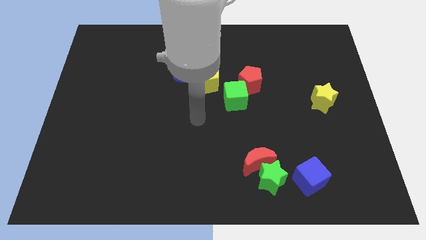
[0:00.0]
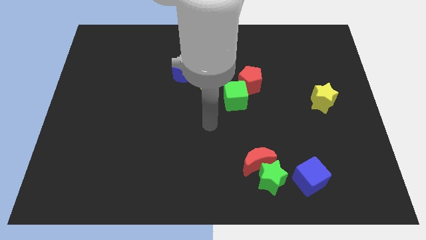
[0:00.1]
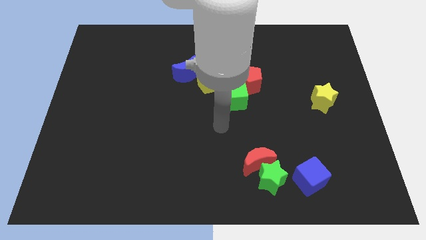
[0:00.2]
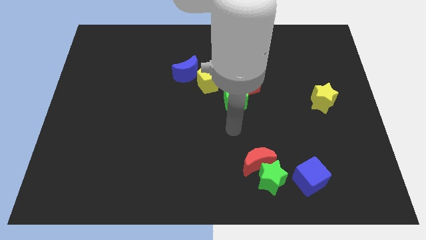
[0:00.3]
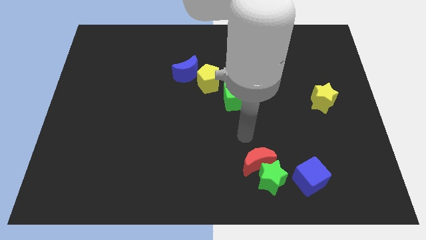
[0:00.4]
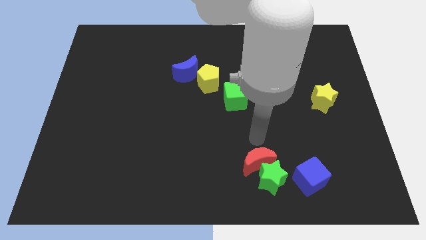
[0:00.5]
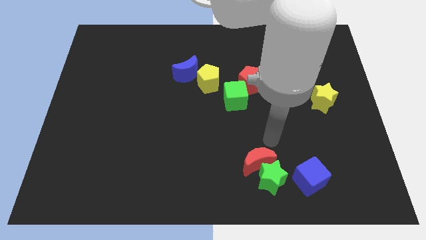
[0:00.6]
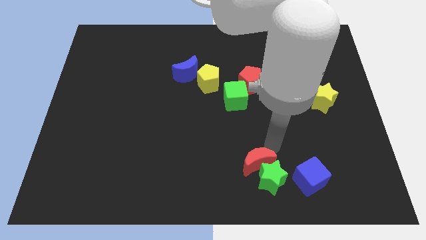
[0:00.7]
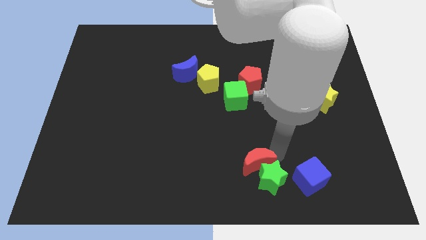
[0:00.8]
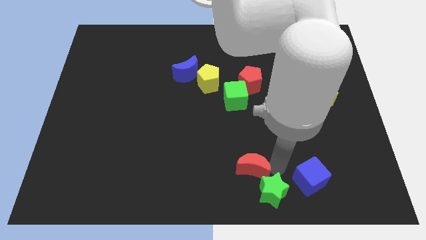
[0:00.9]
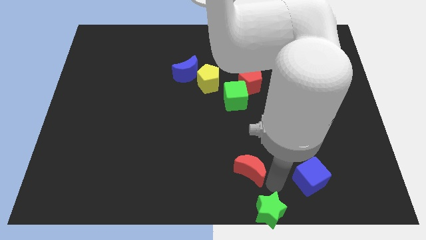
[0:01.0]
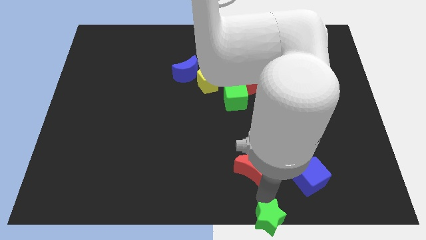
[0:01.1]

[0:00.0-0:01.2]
pull the red moon apart from the green star

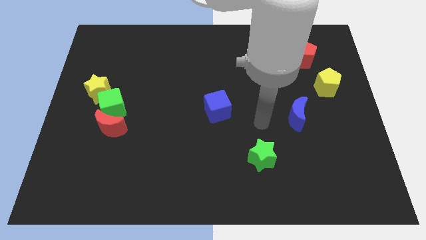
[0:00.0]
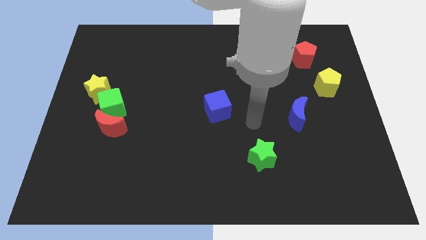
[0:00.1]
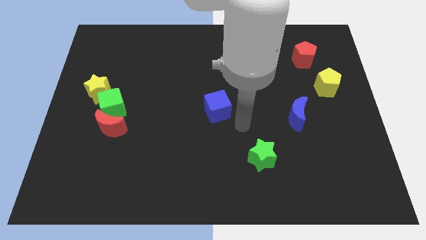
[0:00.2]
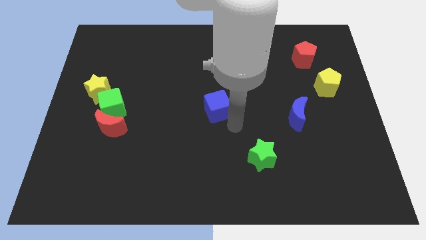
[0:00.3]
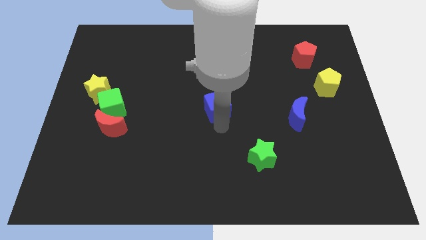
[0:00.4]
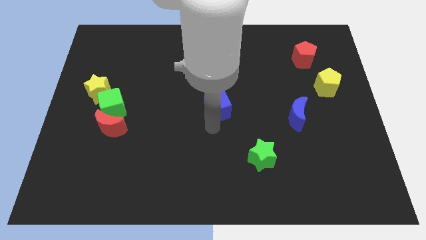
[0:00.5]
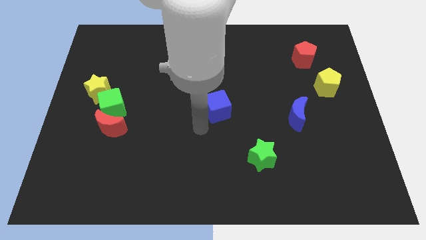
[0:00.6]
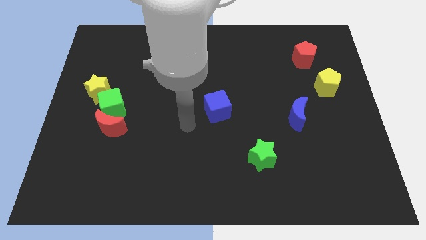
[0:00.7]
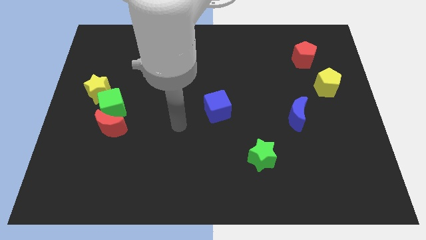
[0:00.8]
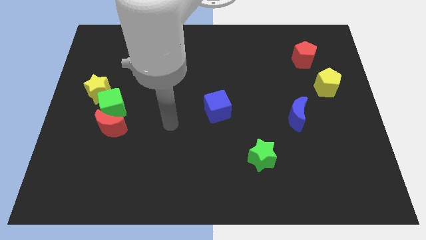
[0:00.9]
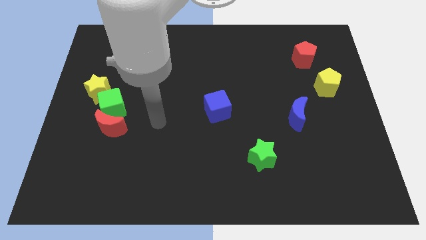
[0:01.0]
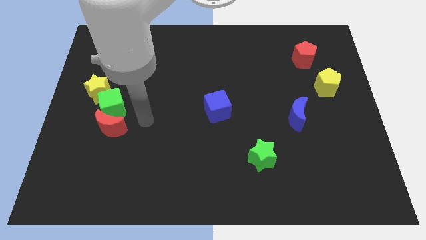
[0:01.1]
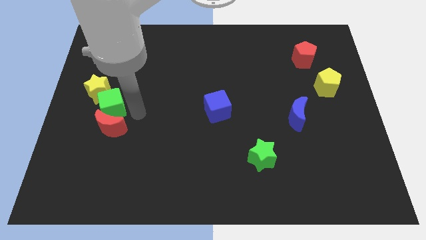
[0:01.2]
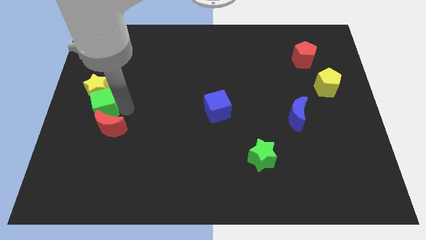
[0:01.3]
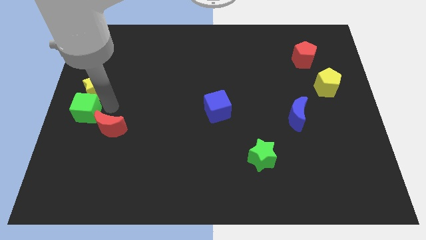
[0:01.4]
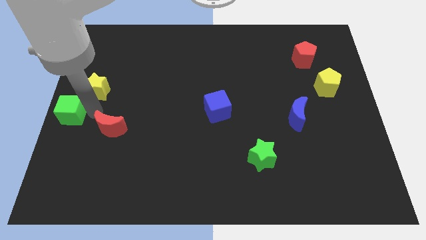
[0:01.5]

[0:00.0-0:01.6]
pull the red moon apart from the green cube

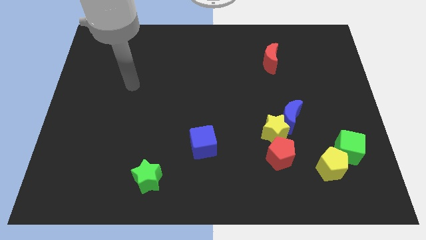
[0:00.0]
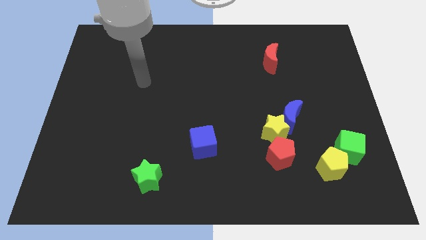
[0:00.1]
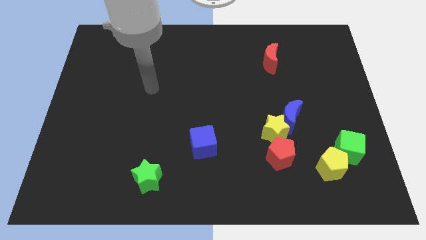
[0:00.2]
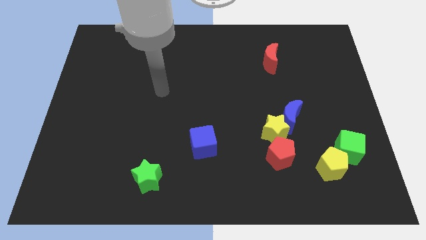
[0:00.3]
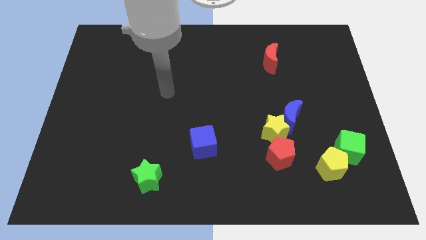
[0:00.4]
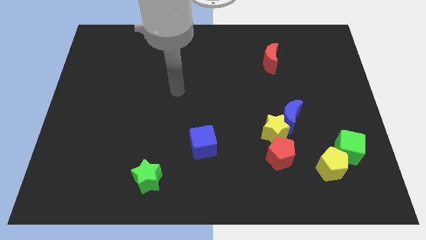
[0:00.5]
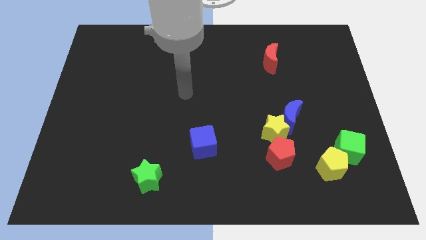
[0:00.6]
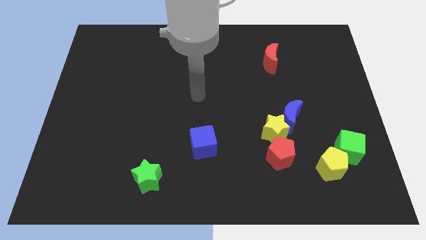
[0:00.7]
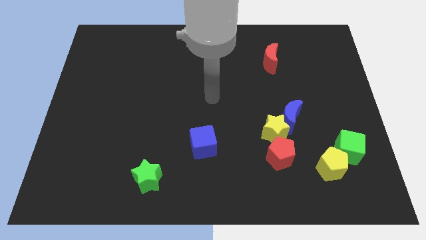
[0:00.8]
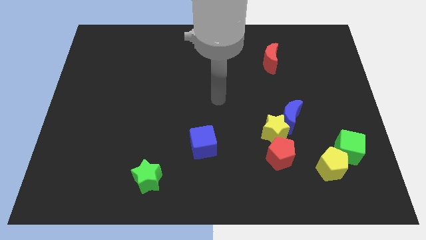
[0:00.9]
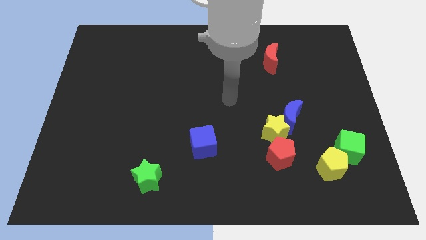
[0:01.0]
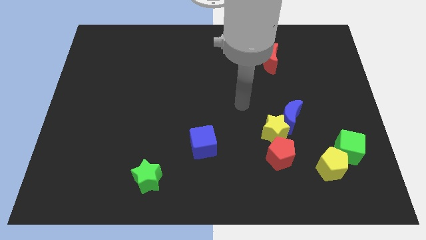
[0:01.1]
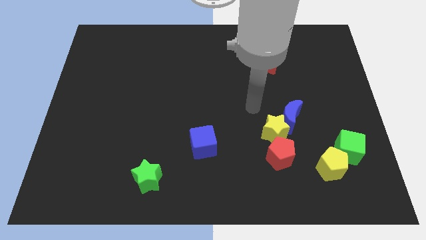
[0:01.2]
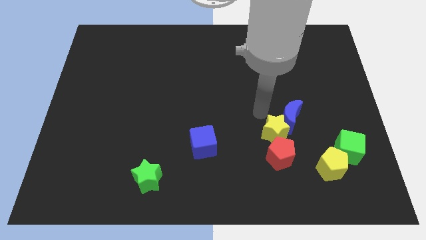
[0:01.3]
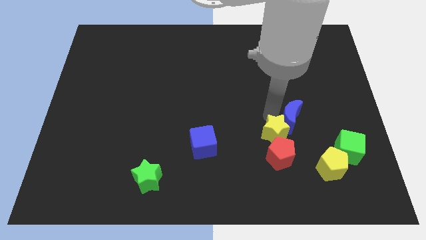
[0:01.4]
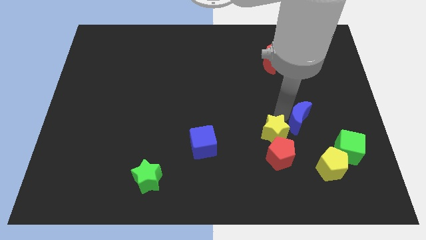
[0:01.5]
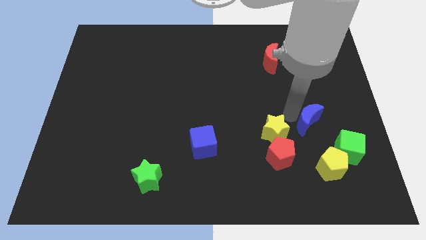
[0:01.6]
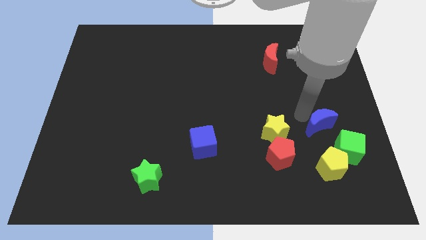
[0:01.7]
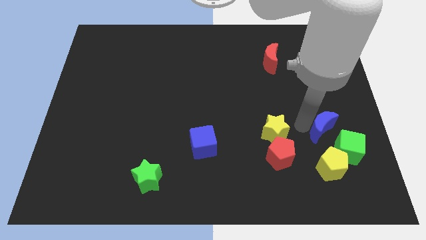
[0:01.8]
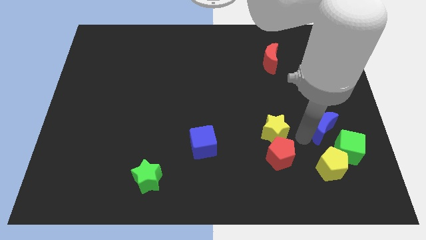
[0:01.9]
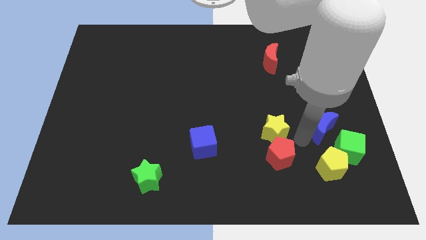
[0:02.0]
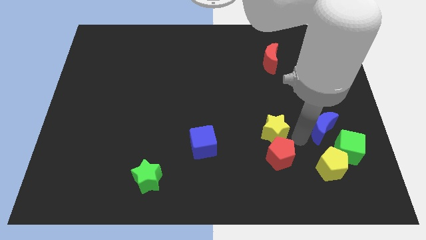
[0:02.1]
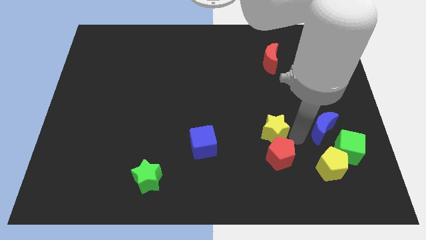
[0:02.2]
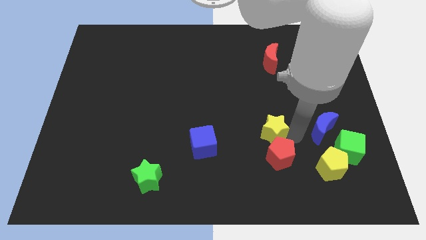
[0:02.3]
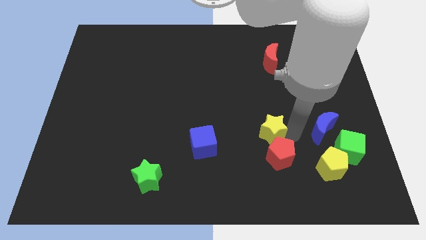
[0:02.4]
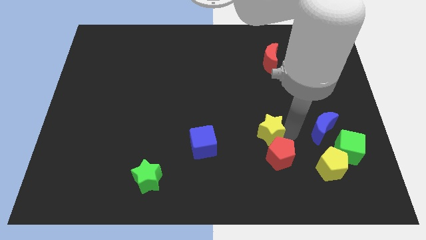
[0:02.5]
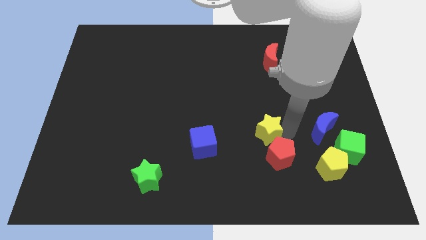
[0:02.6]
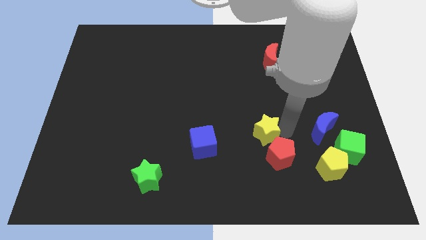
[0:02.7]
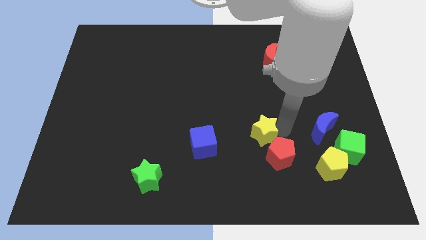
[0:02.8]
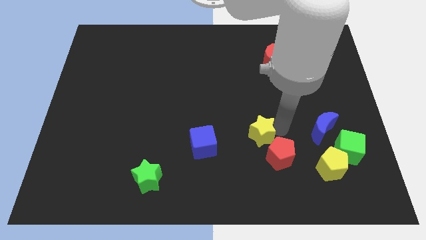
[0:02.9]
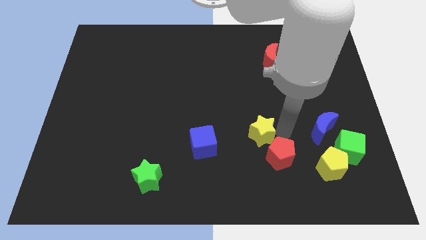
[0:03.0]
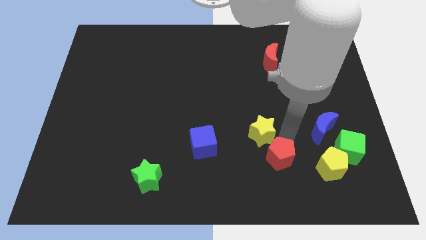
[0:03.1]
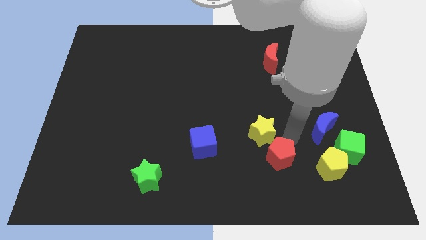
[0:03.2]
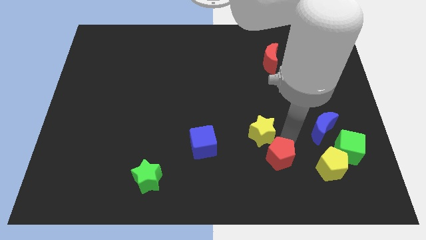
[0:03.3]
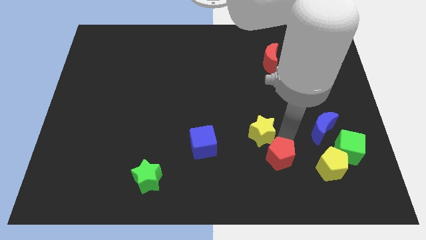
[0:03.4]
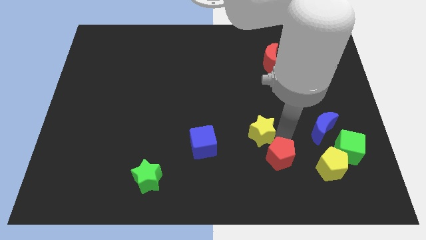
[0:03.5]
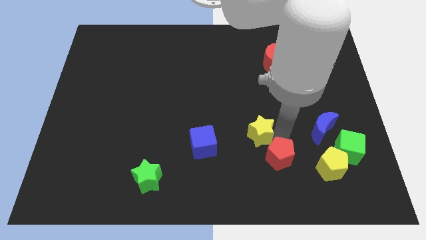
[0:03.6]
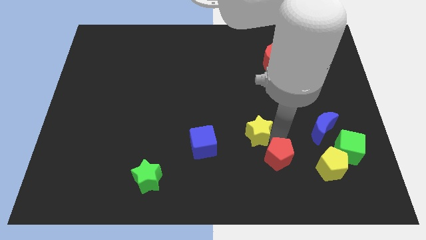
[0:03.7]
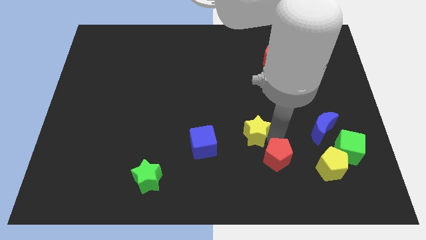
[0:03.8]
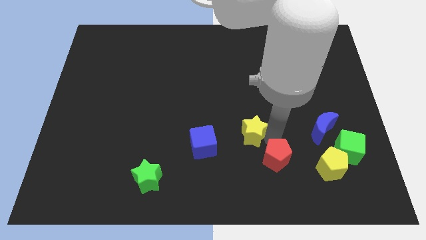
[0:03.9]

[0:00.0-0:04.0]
move the yellow star away from the blue moon and red pentagon

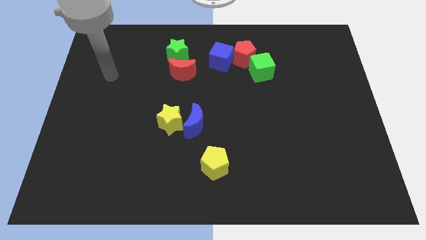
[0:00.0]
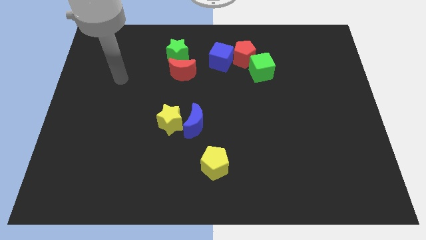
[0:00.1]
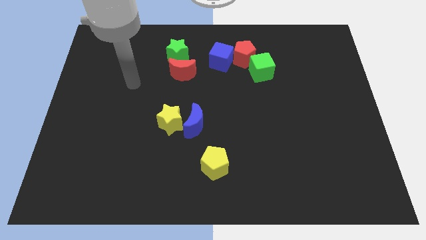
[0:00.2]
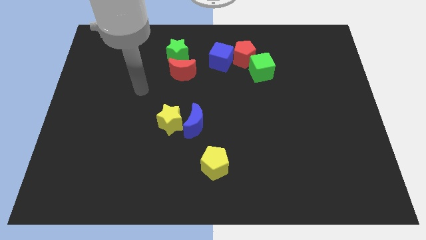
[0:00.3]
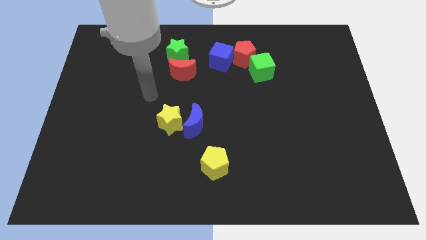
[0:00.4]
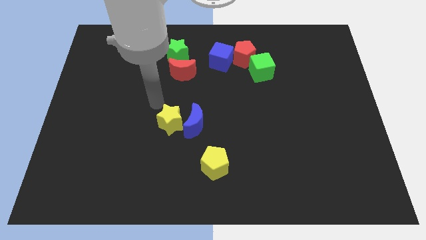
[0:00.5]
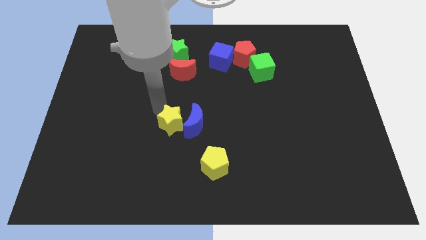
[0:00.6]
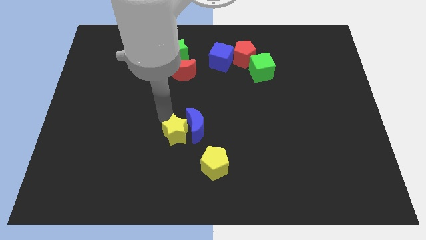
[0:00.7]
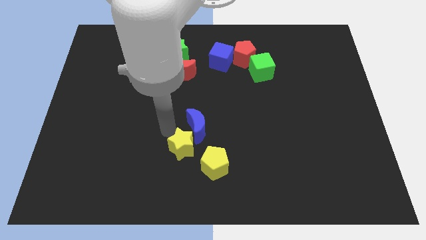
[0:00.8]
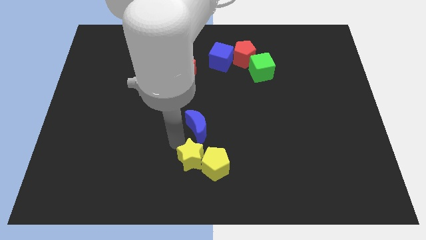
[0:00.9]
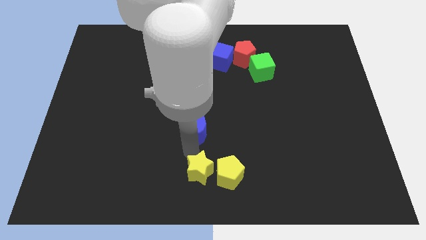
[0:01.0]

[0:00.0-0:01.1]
separate the blue moon from the yellow star

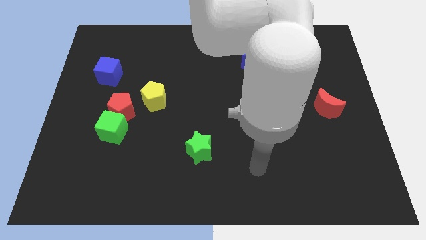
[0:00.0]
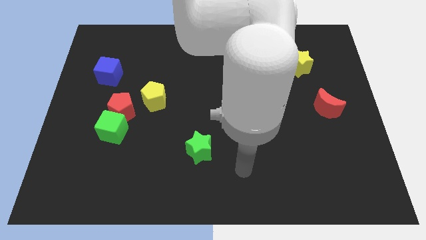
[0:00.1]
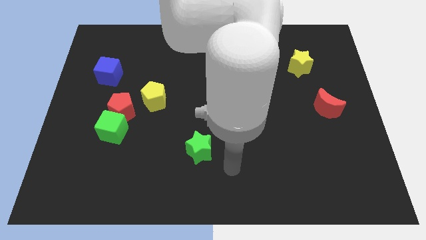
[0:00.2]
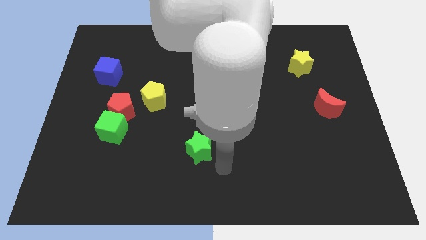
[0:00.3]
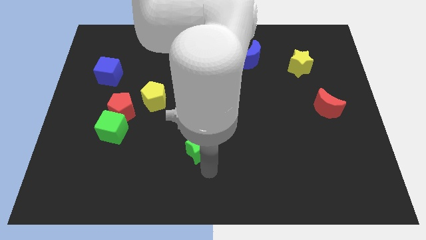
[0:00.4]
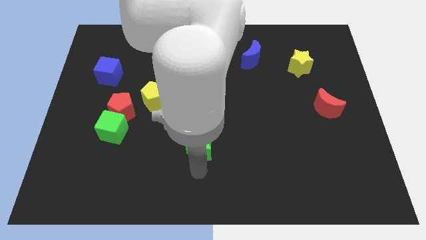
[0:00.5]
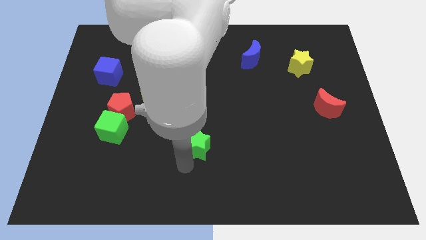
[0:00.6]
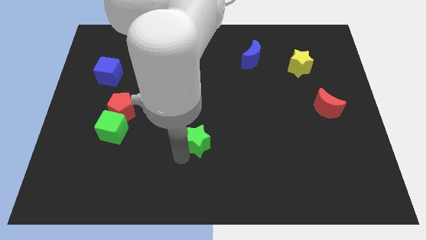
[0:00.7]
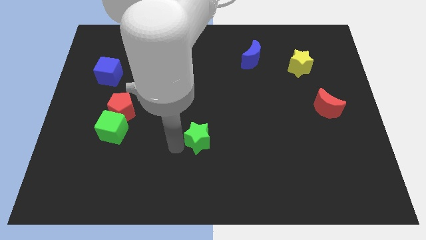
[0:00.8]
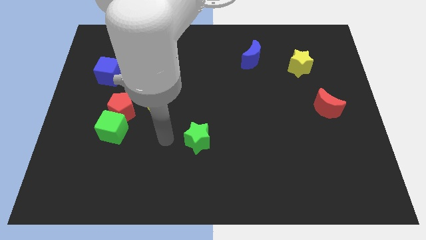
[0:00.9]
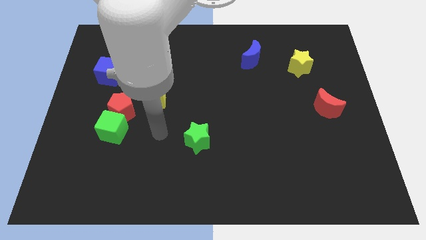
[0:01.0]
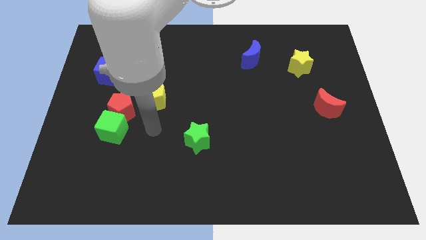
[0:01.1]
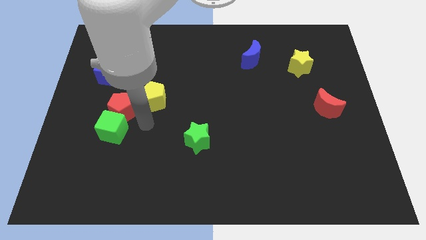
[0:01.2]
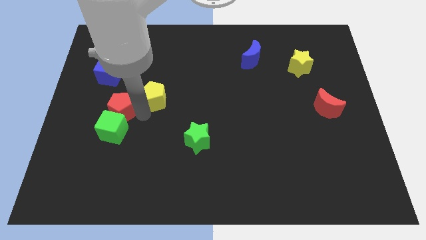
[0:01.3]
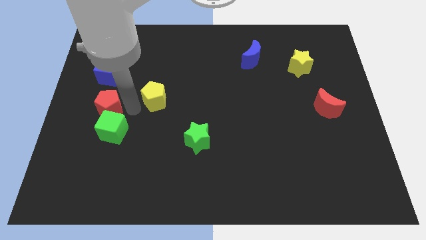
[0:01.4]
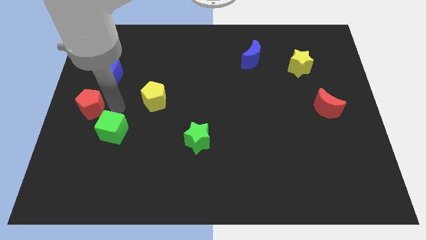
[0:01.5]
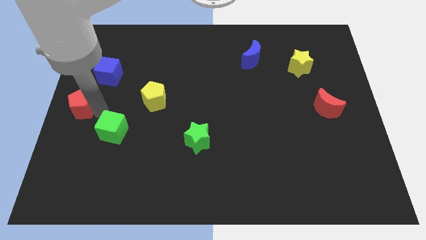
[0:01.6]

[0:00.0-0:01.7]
separate the green cube from the red pentagon
